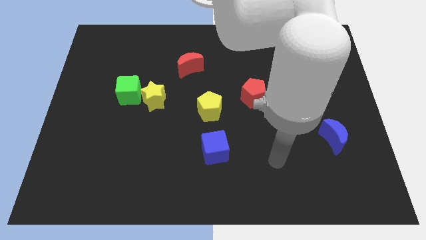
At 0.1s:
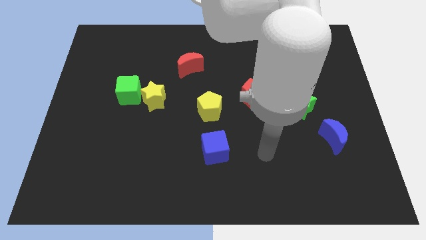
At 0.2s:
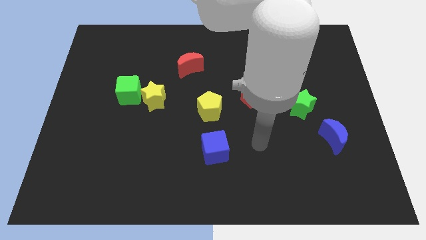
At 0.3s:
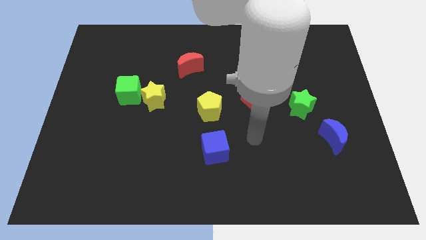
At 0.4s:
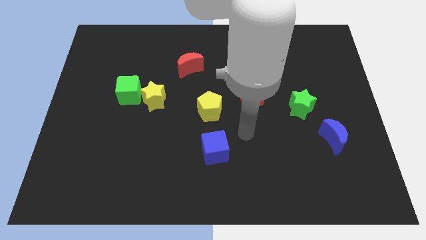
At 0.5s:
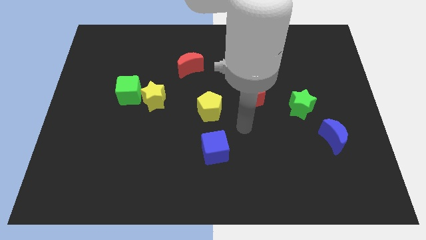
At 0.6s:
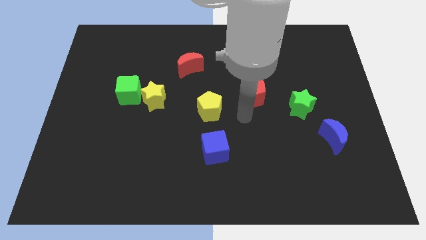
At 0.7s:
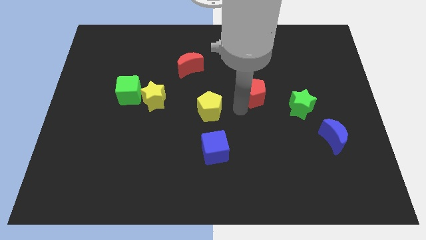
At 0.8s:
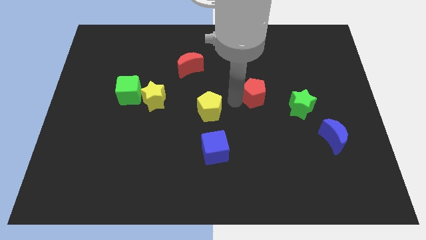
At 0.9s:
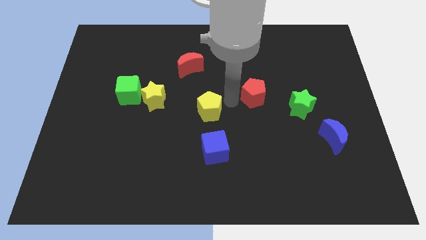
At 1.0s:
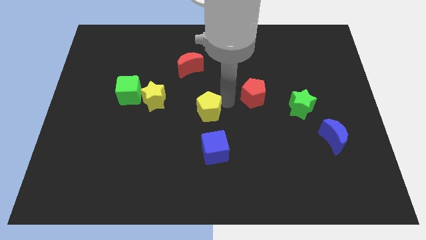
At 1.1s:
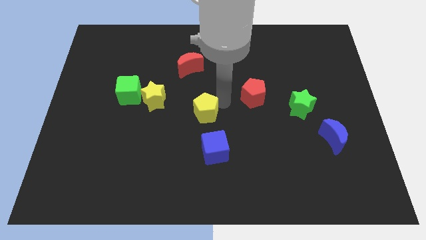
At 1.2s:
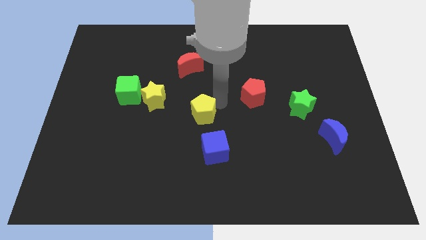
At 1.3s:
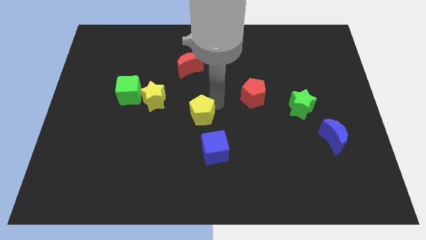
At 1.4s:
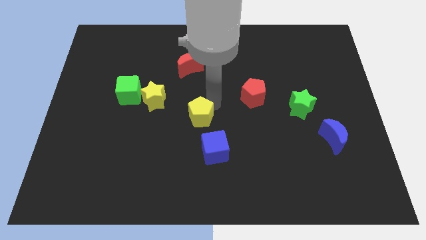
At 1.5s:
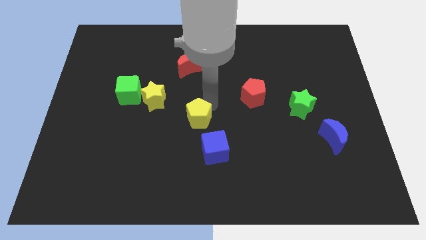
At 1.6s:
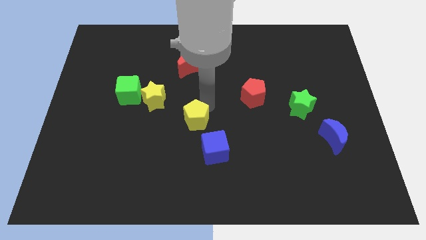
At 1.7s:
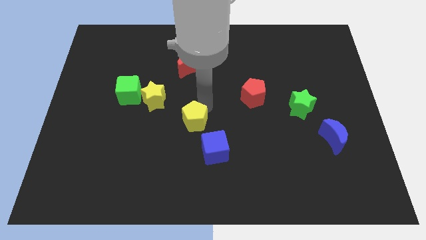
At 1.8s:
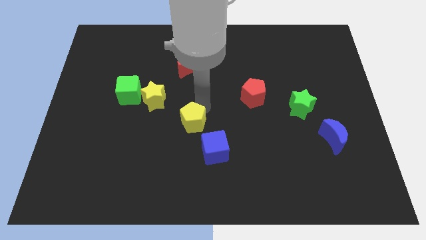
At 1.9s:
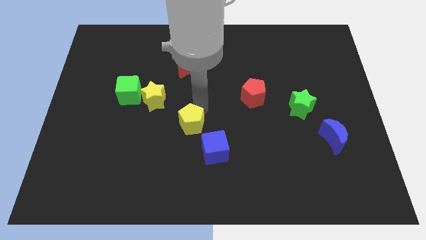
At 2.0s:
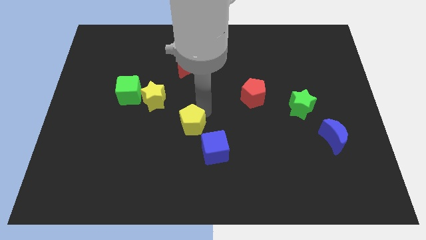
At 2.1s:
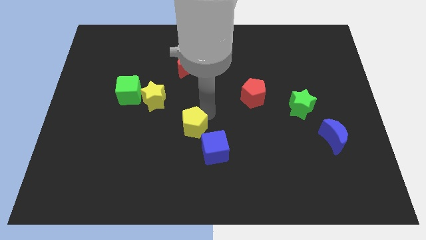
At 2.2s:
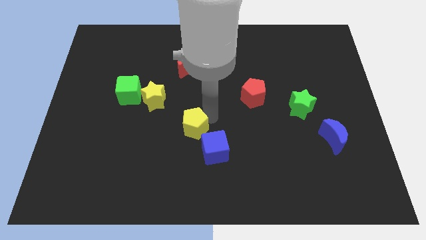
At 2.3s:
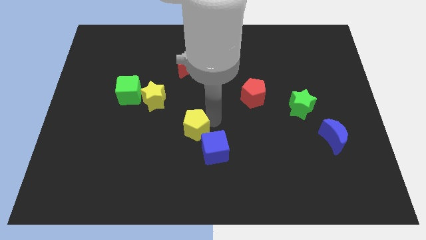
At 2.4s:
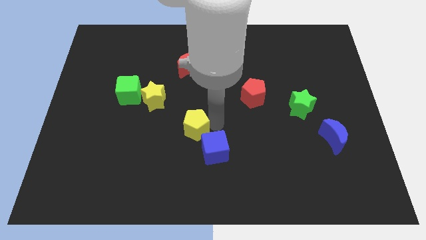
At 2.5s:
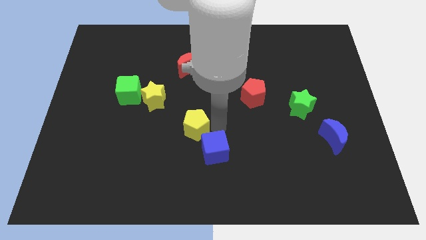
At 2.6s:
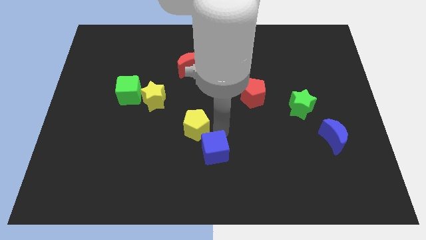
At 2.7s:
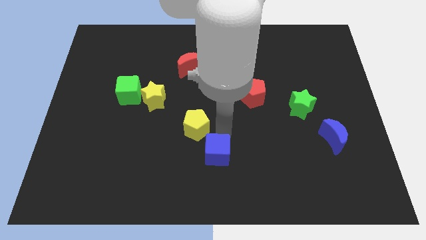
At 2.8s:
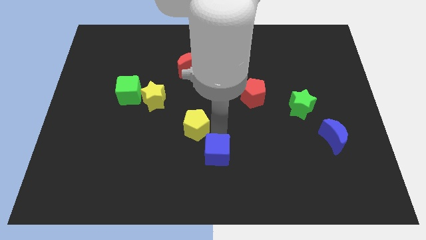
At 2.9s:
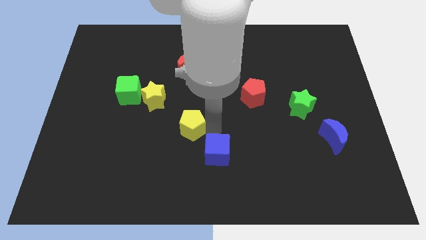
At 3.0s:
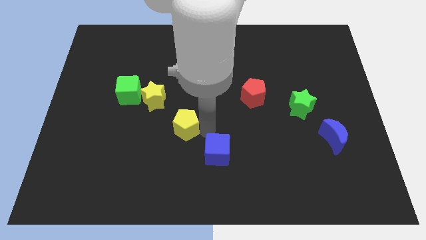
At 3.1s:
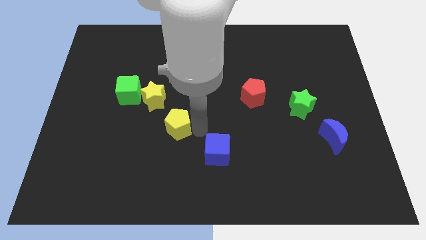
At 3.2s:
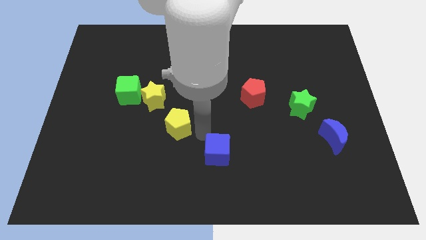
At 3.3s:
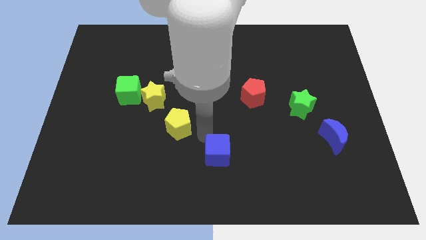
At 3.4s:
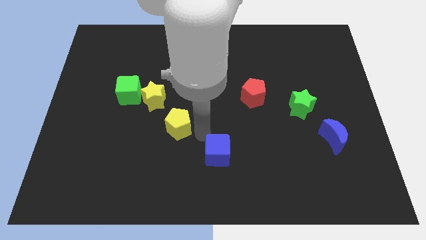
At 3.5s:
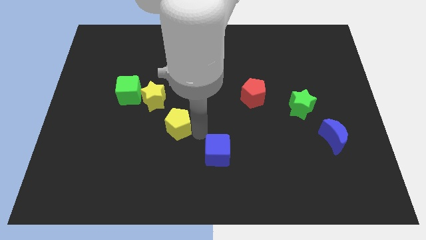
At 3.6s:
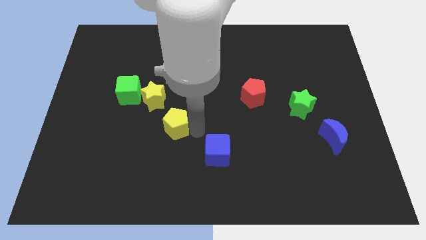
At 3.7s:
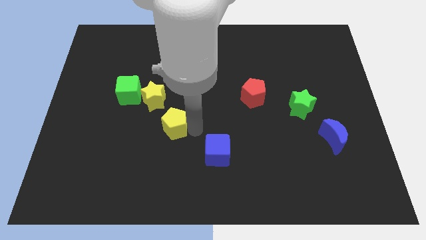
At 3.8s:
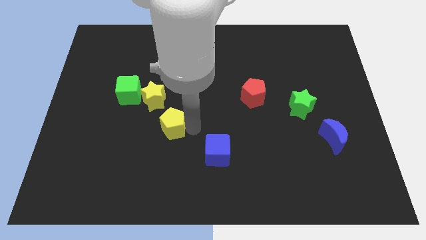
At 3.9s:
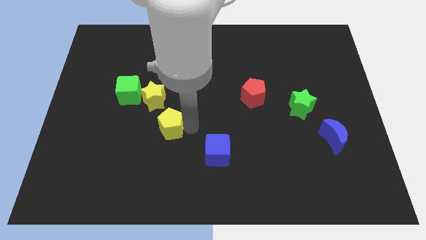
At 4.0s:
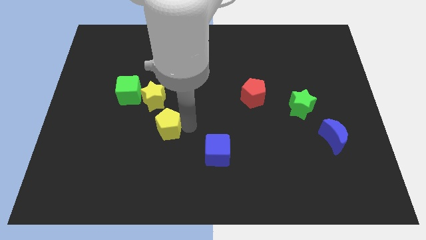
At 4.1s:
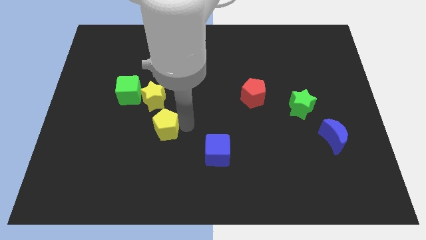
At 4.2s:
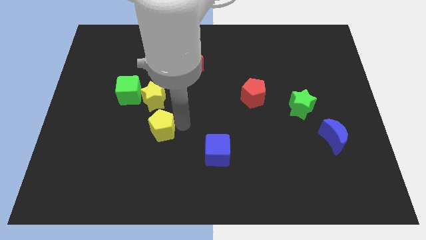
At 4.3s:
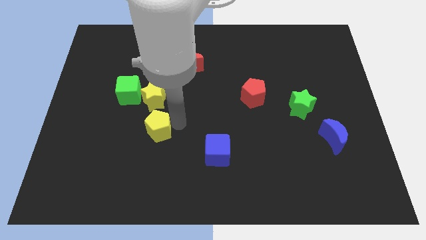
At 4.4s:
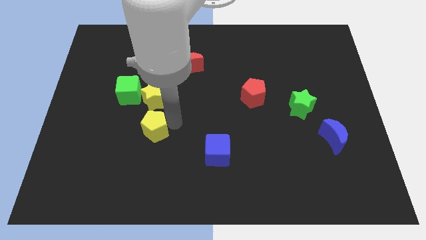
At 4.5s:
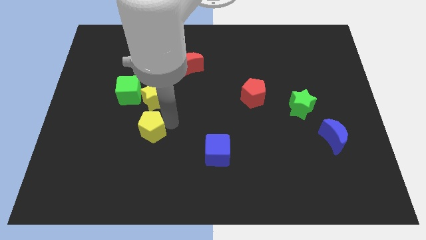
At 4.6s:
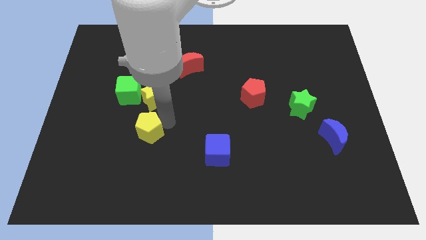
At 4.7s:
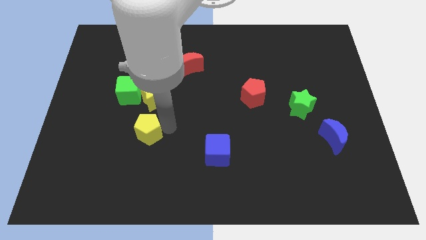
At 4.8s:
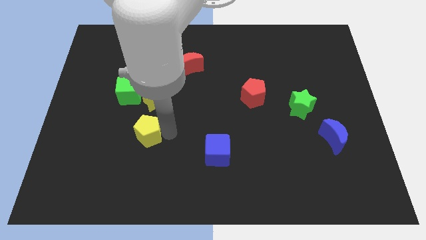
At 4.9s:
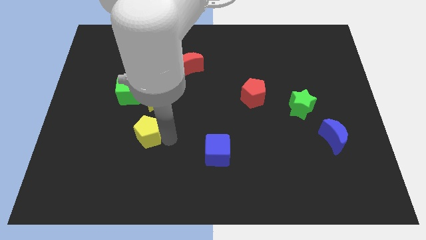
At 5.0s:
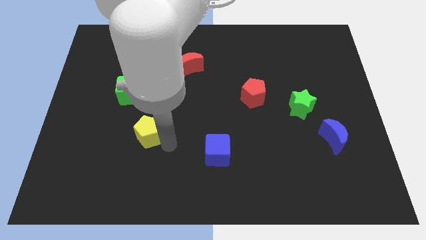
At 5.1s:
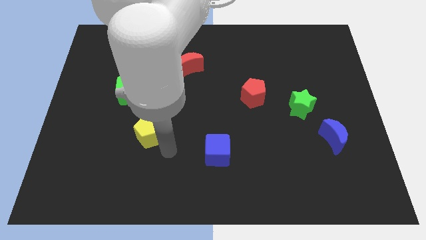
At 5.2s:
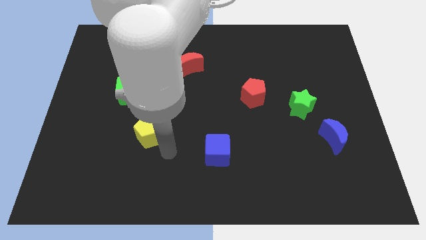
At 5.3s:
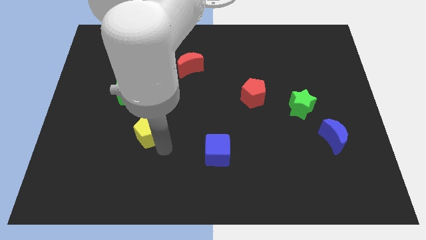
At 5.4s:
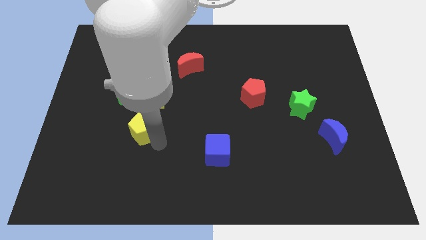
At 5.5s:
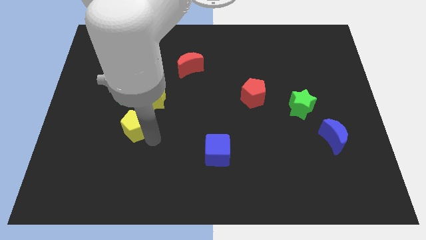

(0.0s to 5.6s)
put the yellow pentagon diagonally down and to the left of the yellow star

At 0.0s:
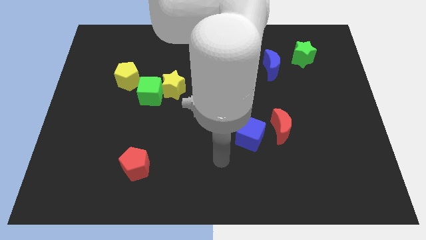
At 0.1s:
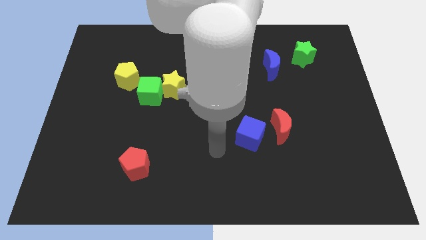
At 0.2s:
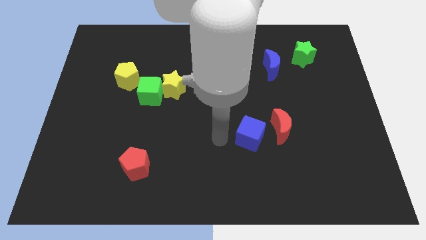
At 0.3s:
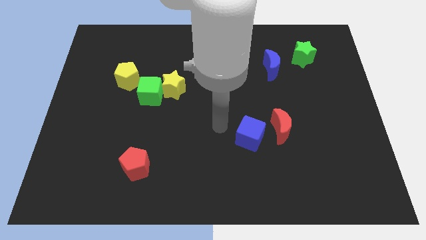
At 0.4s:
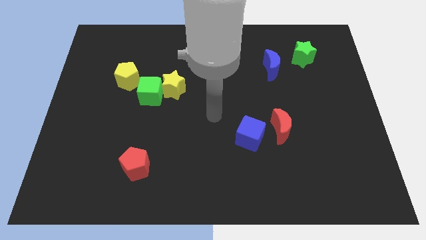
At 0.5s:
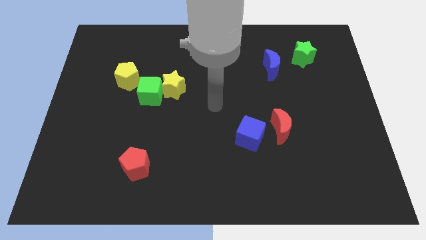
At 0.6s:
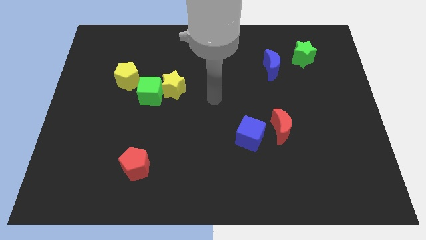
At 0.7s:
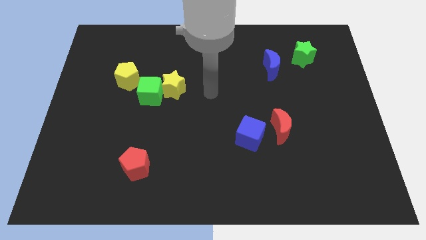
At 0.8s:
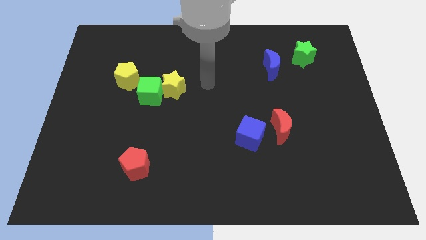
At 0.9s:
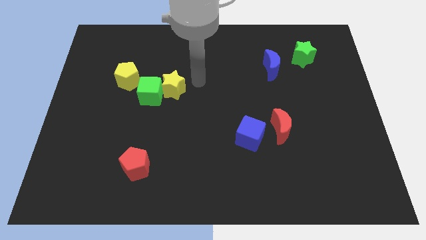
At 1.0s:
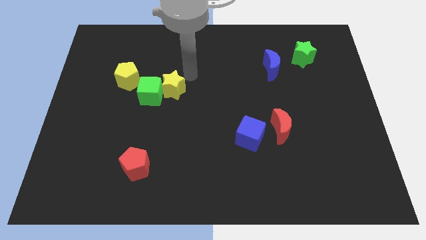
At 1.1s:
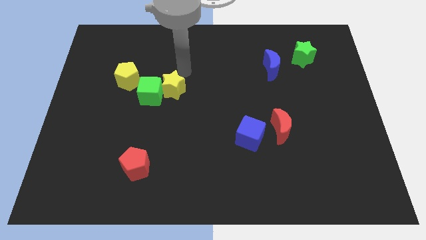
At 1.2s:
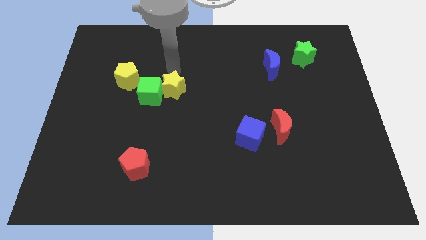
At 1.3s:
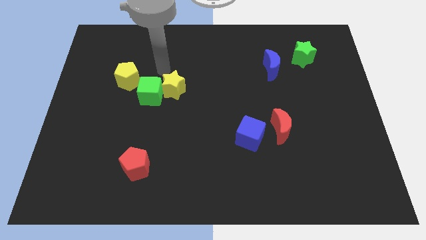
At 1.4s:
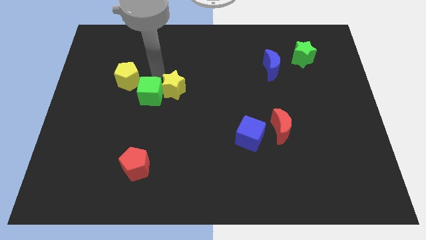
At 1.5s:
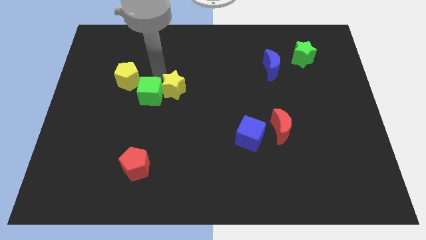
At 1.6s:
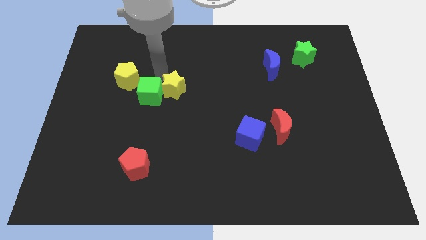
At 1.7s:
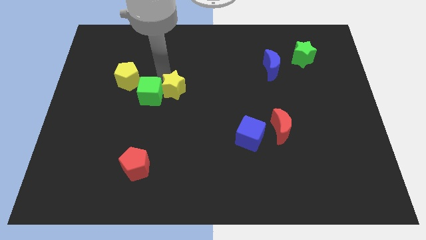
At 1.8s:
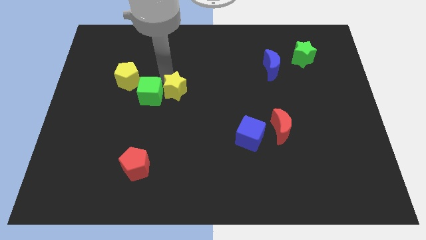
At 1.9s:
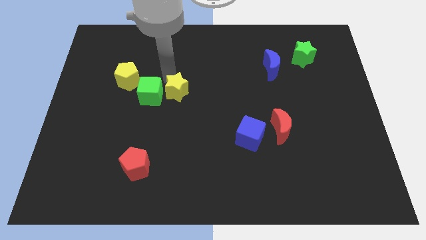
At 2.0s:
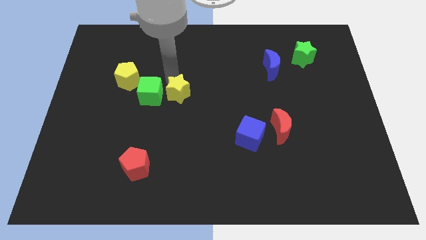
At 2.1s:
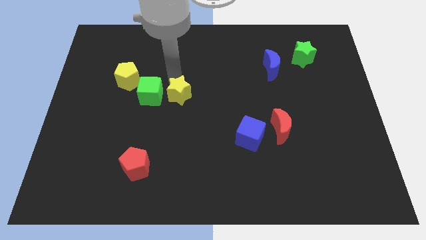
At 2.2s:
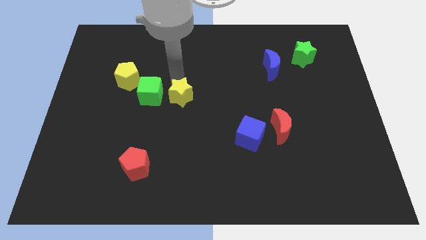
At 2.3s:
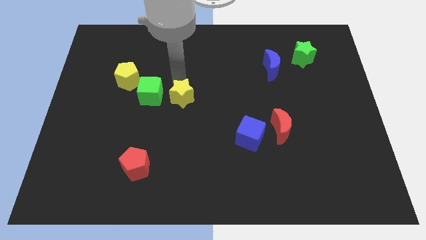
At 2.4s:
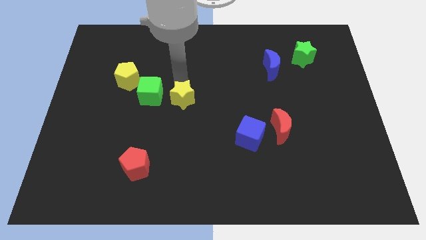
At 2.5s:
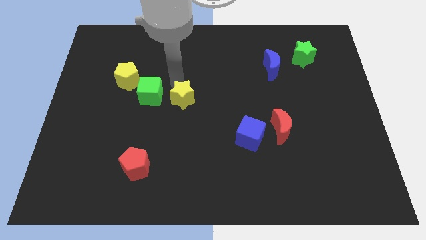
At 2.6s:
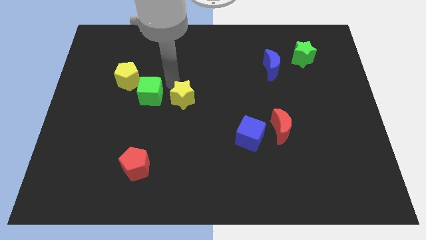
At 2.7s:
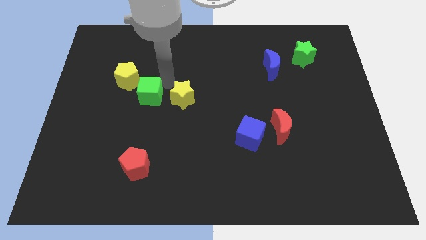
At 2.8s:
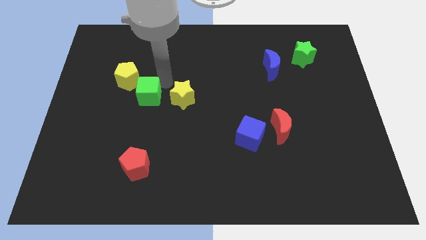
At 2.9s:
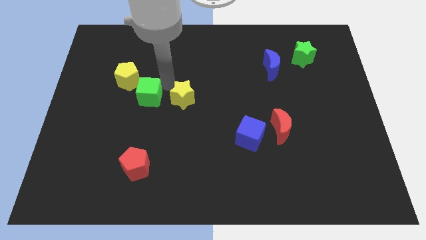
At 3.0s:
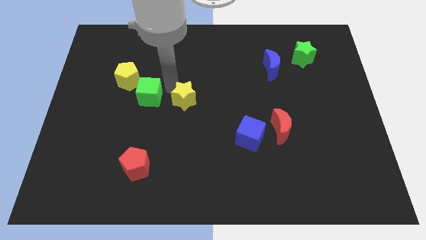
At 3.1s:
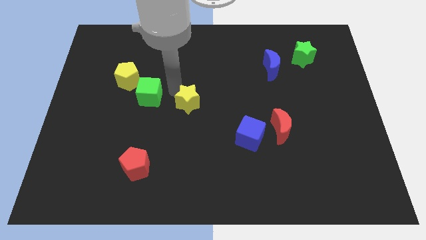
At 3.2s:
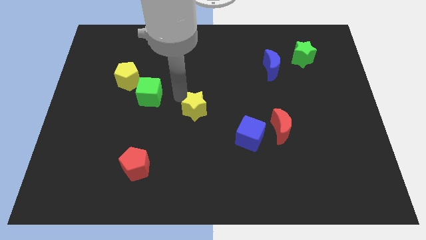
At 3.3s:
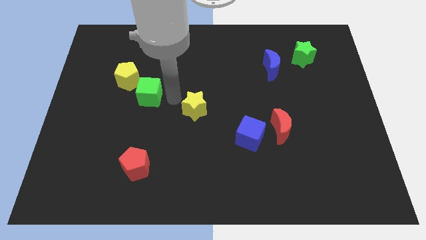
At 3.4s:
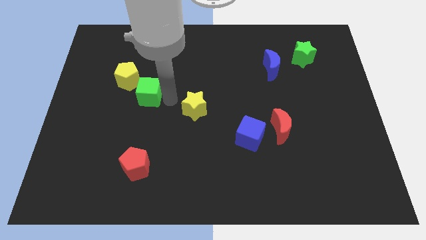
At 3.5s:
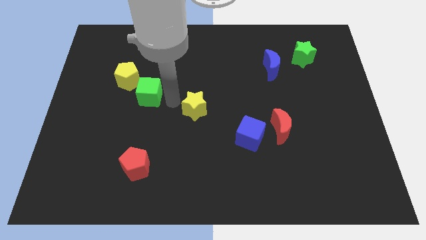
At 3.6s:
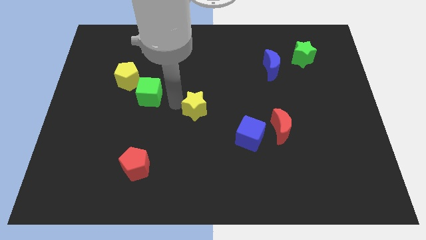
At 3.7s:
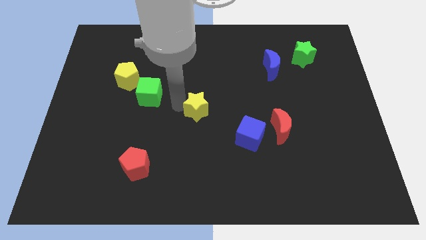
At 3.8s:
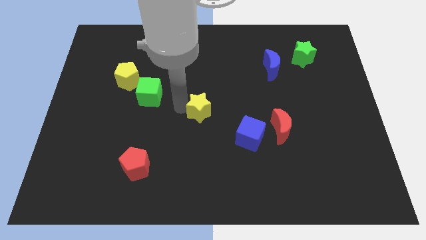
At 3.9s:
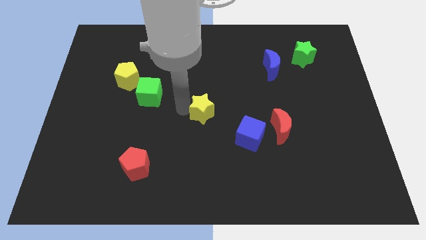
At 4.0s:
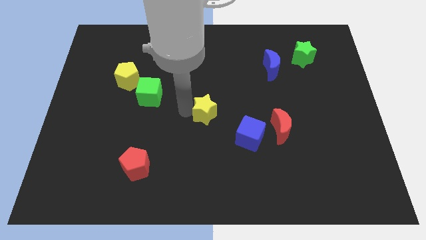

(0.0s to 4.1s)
move the yellow star to the top left side of the blue cube
